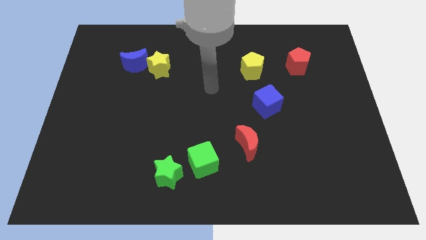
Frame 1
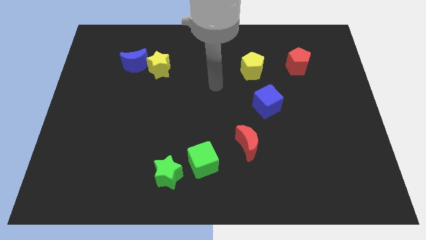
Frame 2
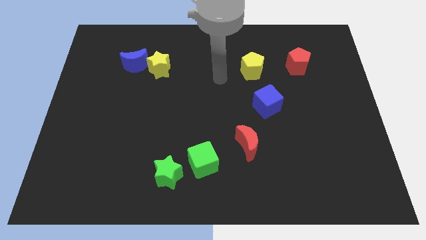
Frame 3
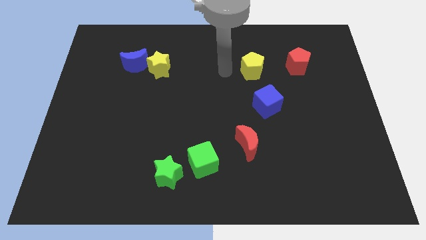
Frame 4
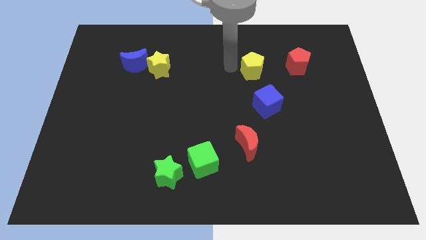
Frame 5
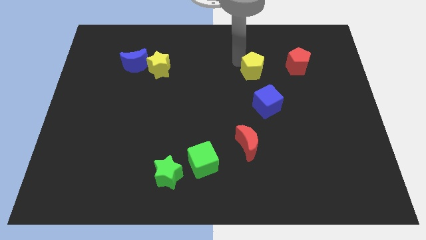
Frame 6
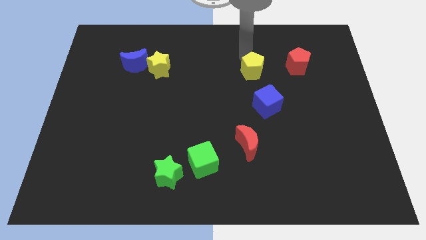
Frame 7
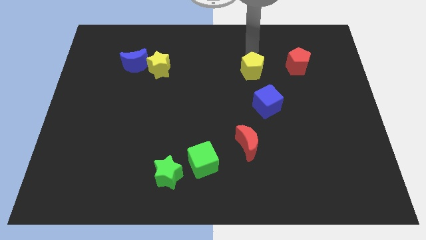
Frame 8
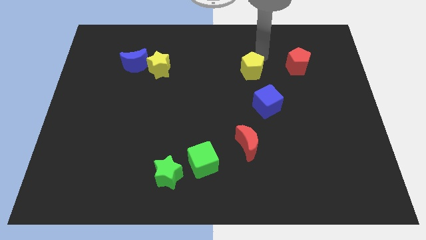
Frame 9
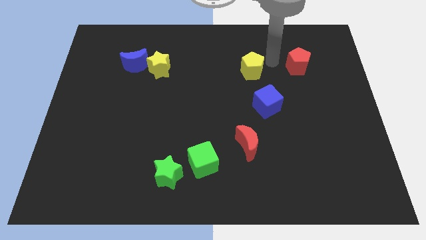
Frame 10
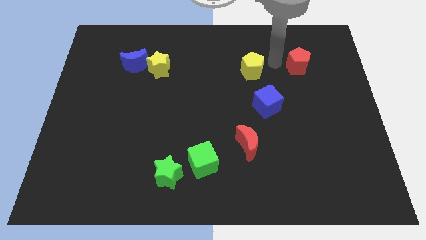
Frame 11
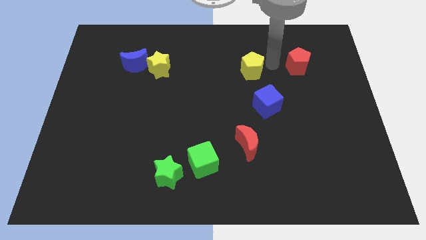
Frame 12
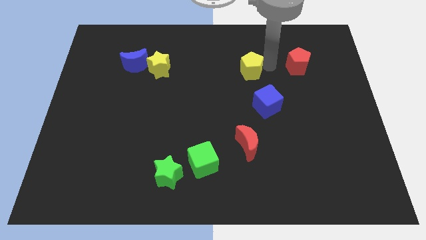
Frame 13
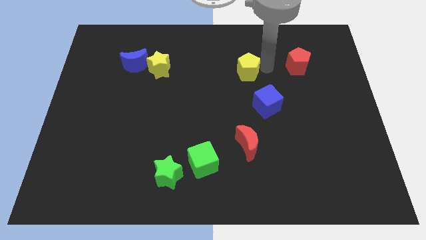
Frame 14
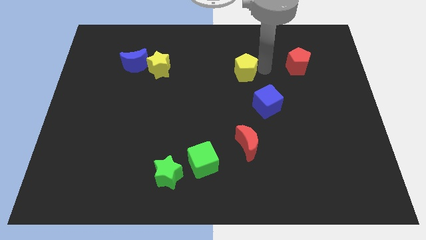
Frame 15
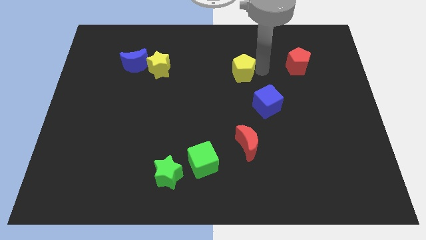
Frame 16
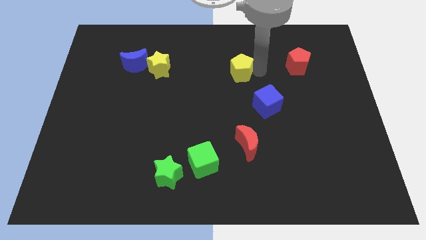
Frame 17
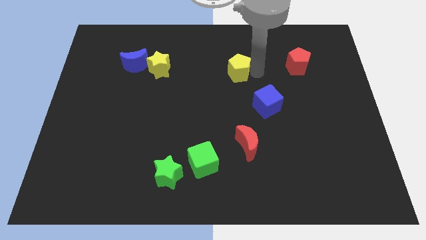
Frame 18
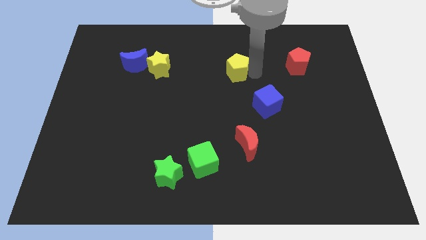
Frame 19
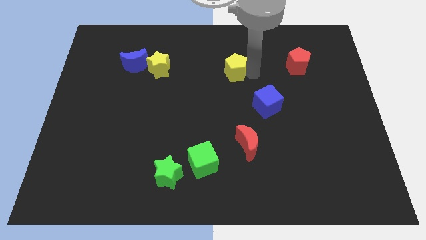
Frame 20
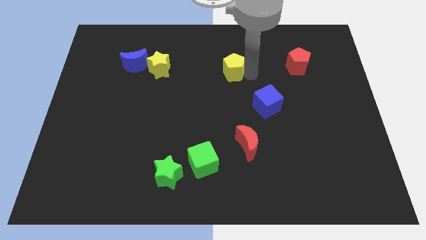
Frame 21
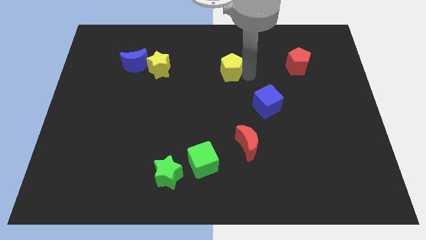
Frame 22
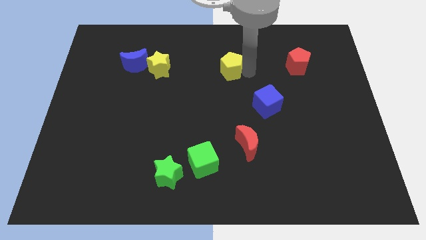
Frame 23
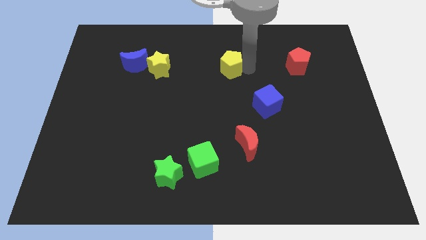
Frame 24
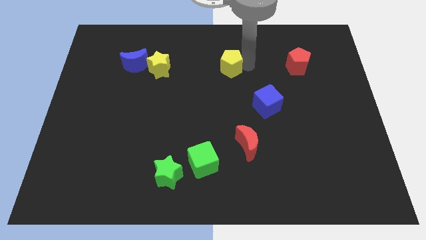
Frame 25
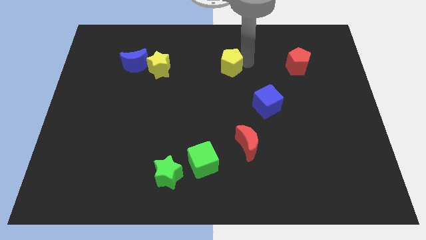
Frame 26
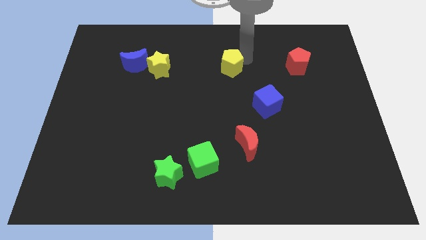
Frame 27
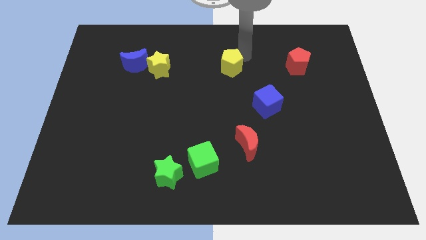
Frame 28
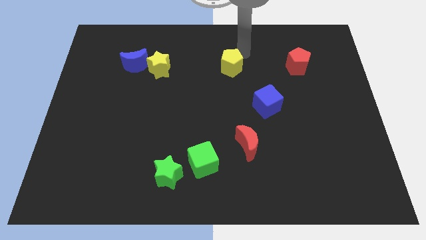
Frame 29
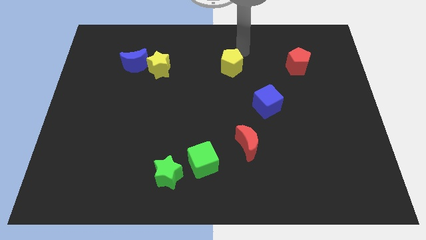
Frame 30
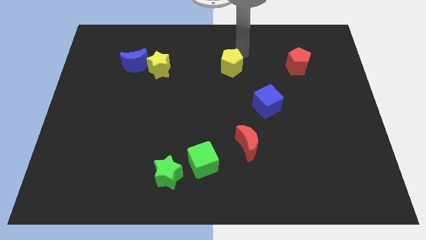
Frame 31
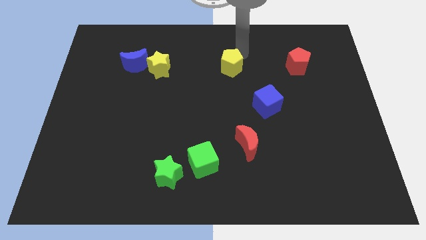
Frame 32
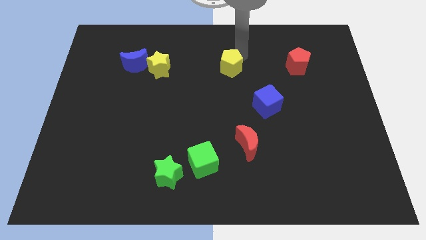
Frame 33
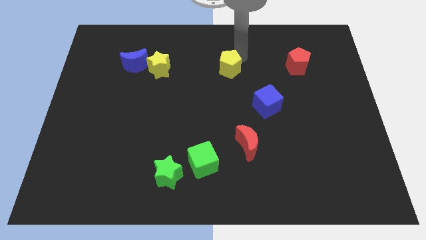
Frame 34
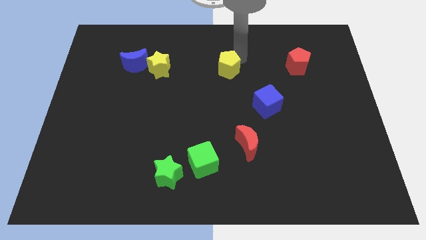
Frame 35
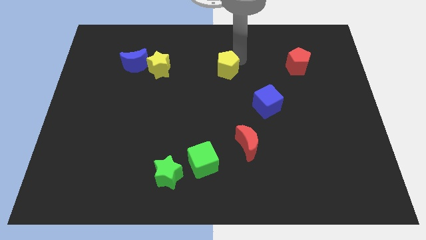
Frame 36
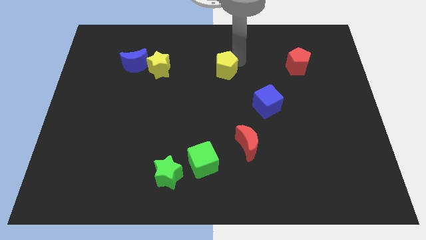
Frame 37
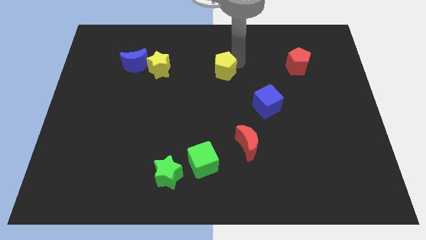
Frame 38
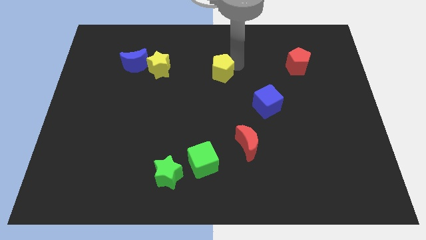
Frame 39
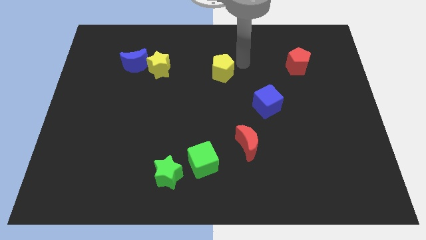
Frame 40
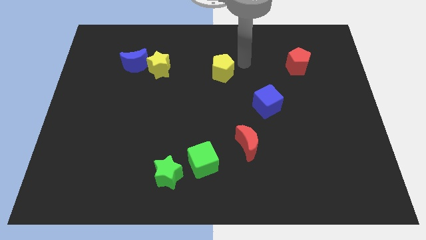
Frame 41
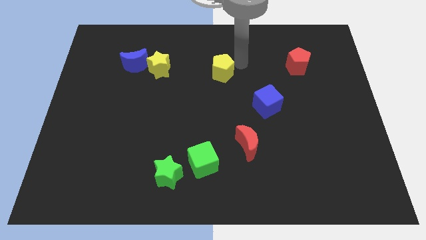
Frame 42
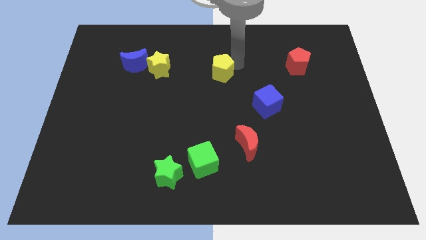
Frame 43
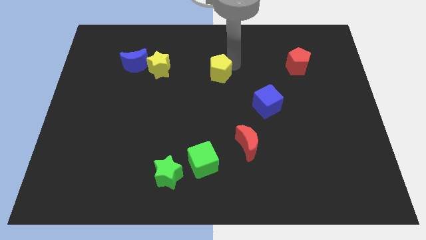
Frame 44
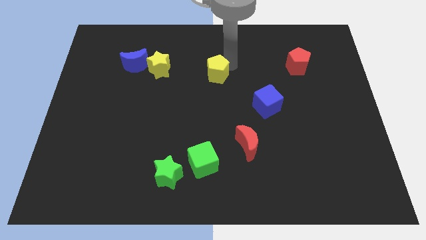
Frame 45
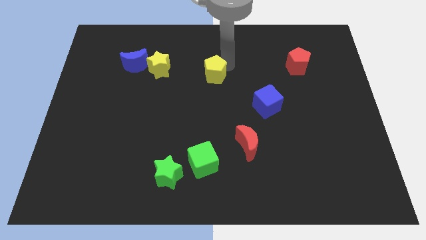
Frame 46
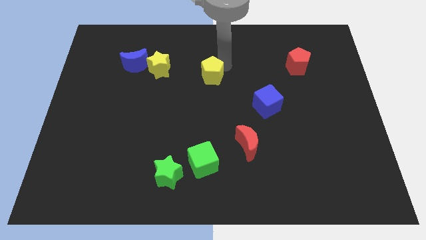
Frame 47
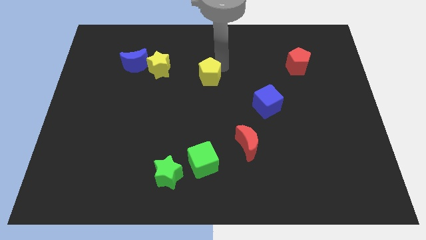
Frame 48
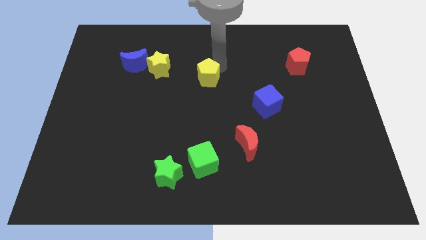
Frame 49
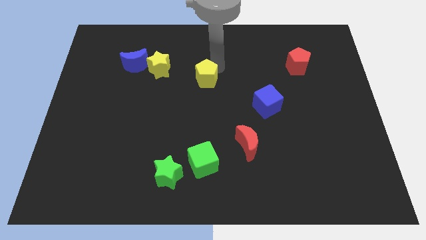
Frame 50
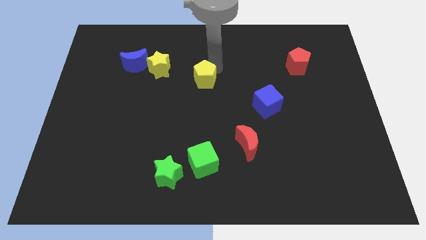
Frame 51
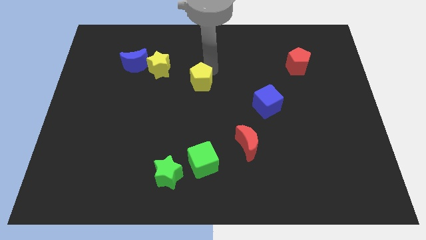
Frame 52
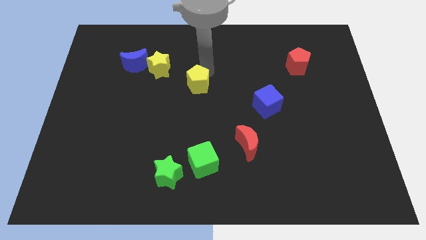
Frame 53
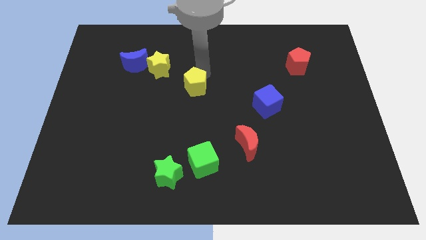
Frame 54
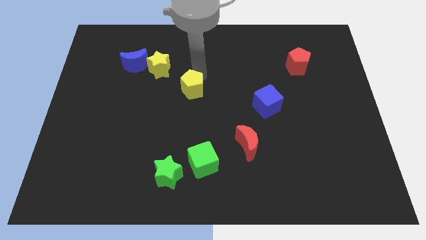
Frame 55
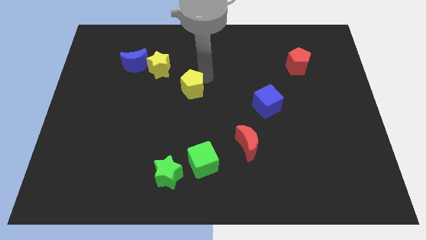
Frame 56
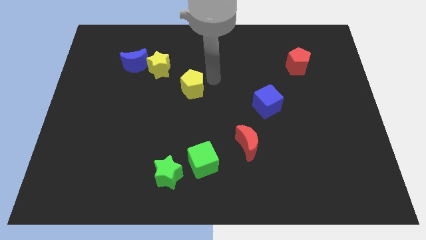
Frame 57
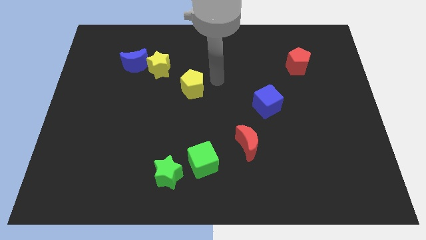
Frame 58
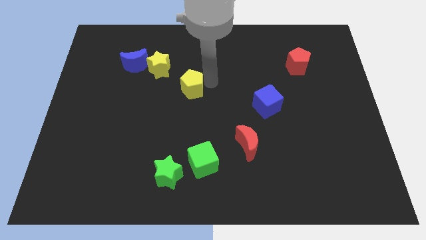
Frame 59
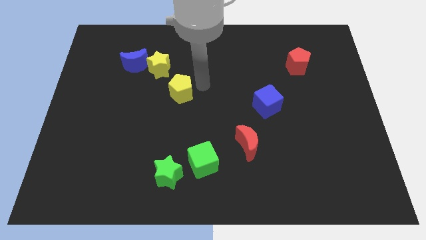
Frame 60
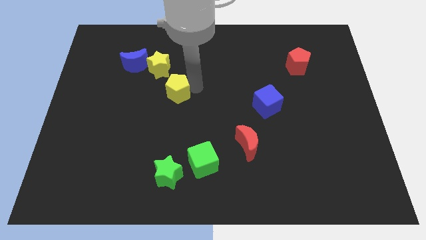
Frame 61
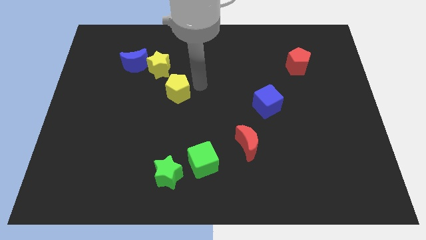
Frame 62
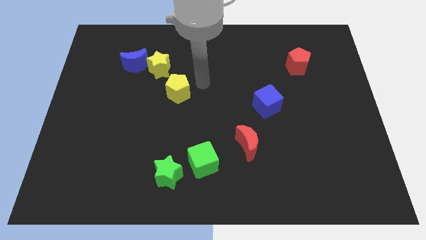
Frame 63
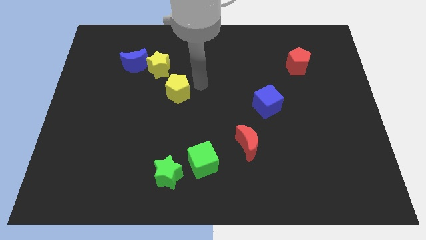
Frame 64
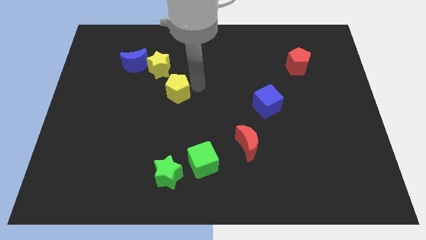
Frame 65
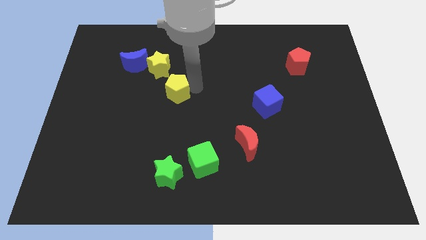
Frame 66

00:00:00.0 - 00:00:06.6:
push the yellow pentagon to the bottom side of the yellow star
